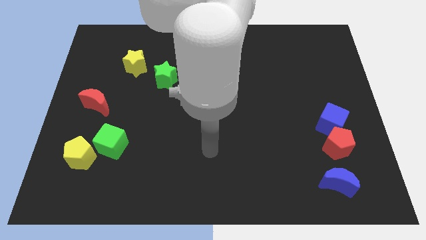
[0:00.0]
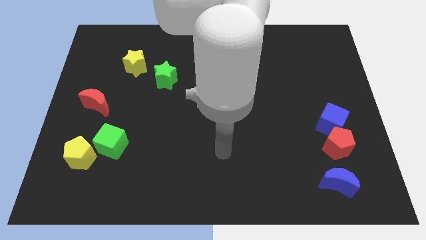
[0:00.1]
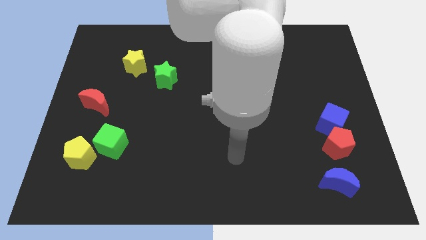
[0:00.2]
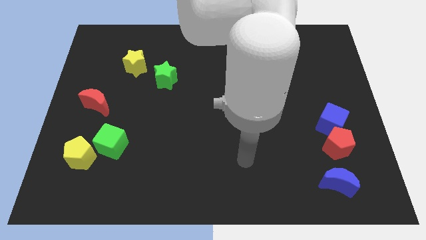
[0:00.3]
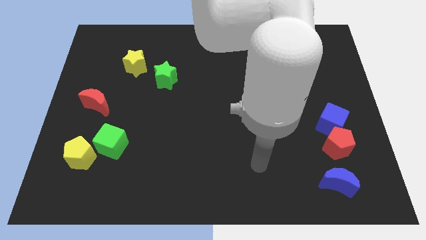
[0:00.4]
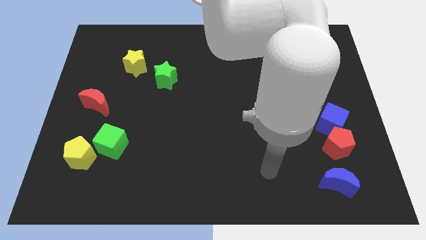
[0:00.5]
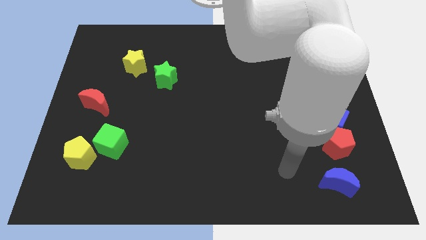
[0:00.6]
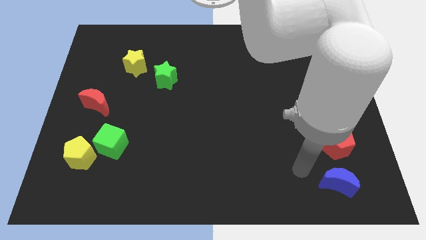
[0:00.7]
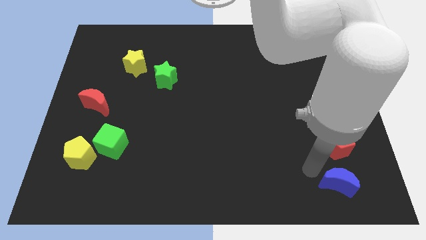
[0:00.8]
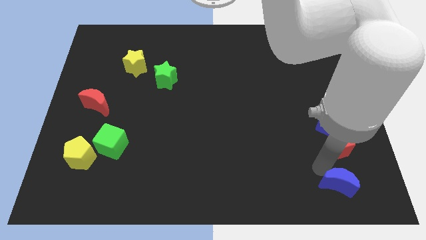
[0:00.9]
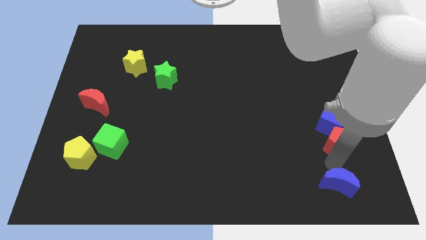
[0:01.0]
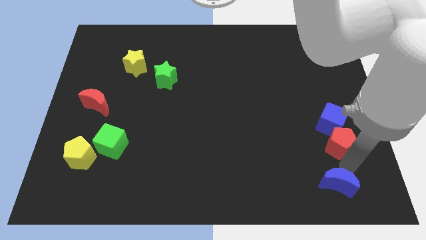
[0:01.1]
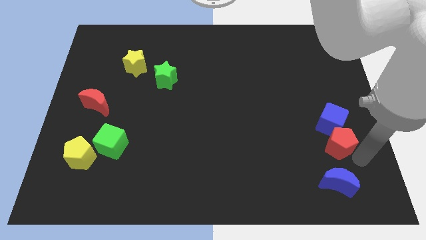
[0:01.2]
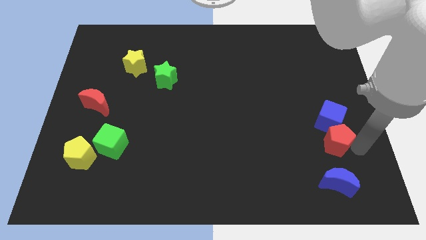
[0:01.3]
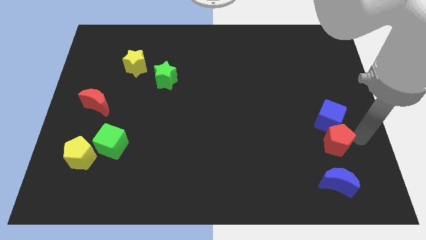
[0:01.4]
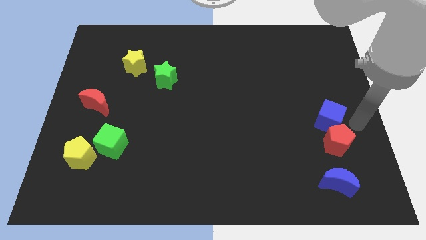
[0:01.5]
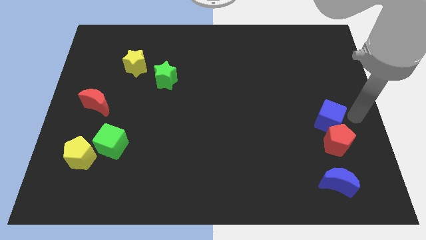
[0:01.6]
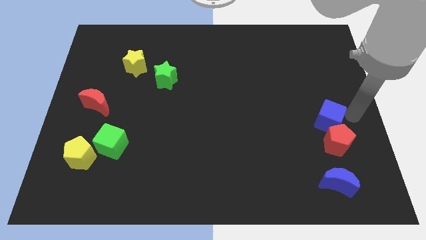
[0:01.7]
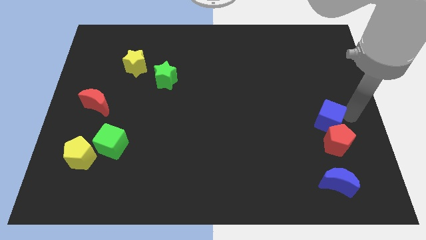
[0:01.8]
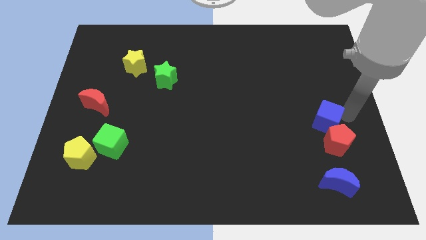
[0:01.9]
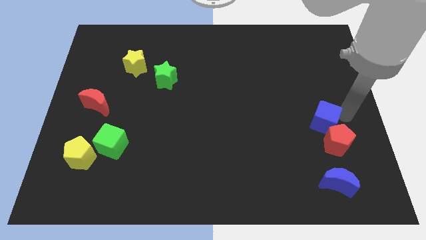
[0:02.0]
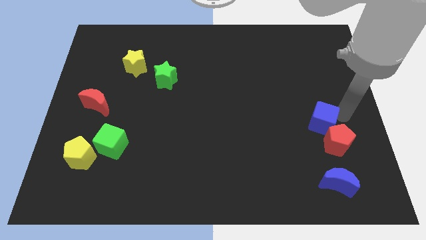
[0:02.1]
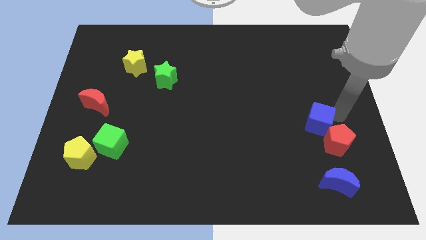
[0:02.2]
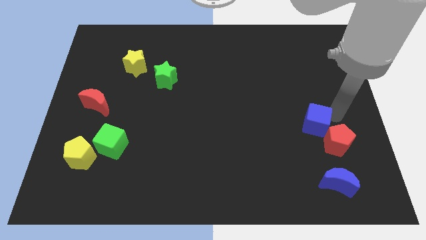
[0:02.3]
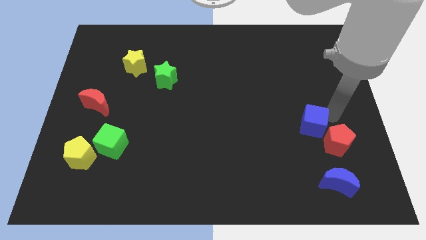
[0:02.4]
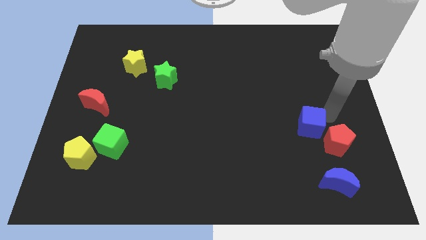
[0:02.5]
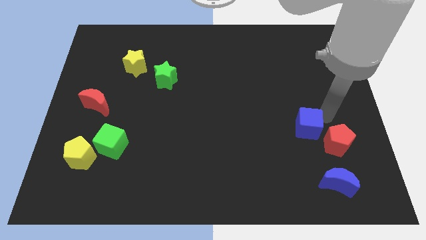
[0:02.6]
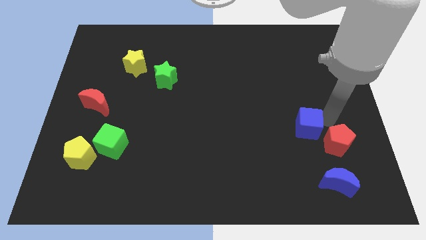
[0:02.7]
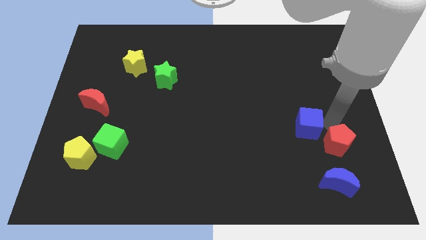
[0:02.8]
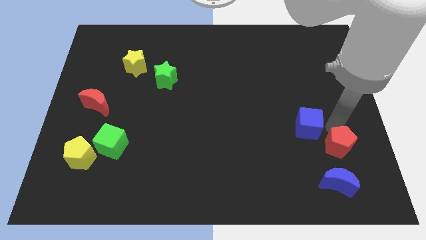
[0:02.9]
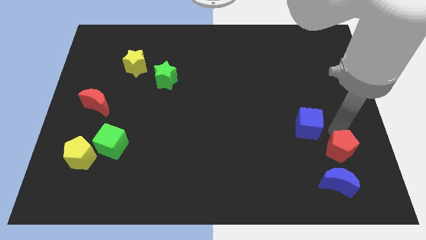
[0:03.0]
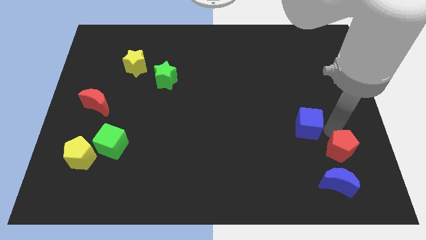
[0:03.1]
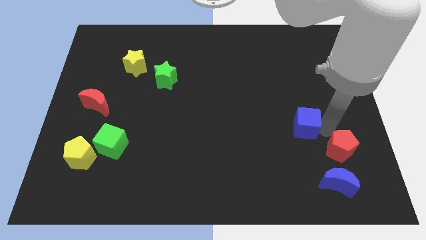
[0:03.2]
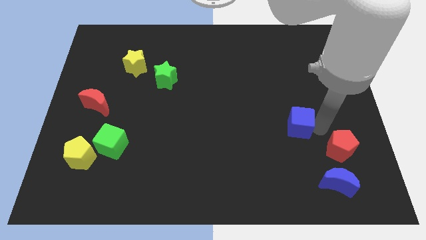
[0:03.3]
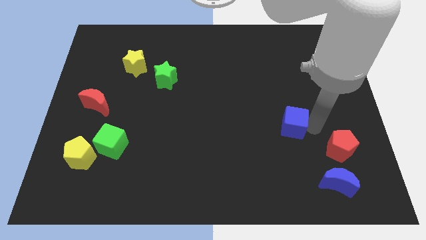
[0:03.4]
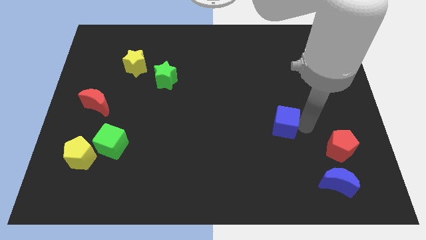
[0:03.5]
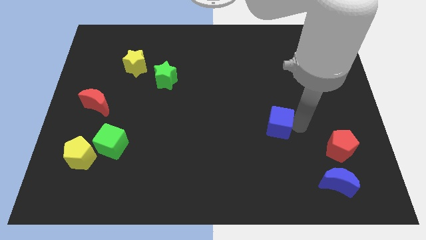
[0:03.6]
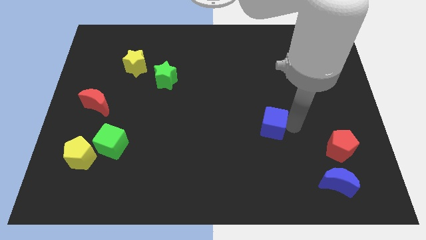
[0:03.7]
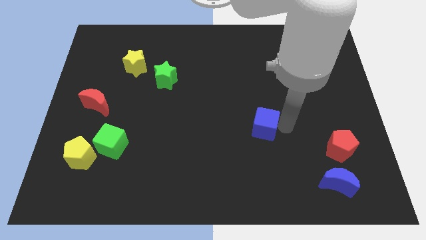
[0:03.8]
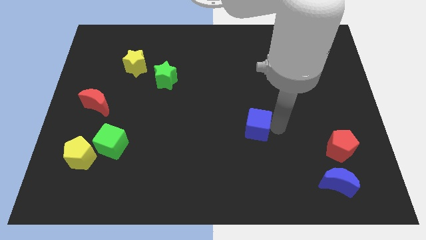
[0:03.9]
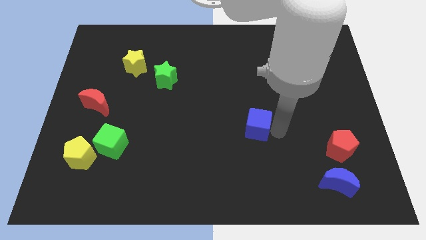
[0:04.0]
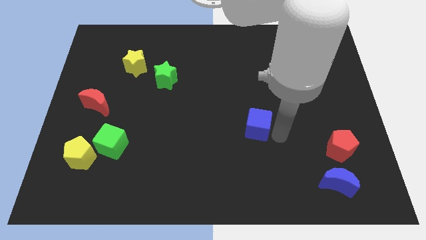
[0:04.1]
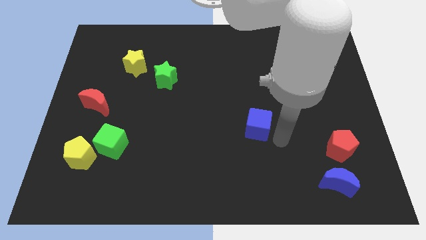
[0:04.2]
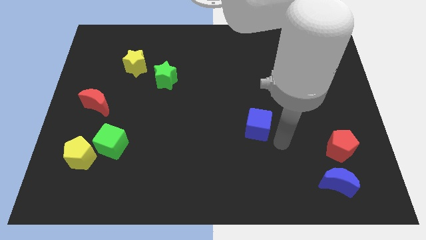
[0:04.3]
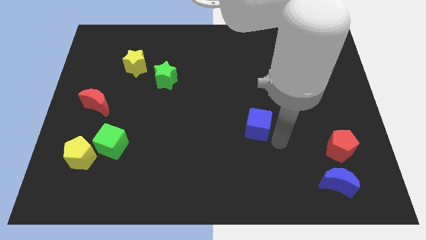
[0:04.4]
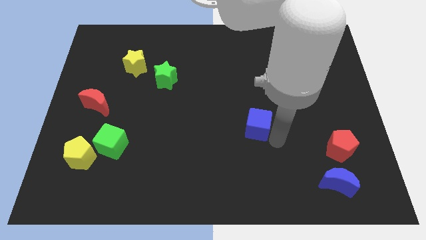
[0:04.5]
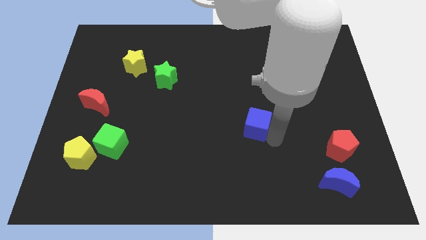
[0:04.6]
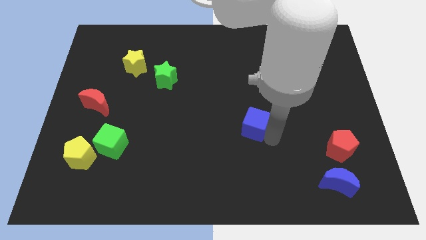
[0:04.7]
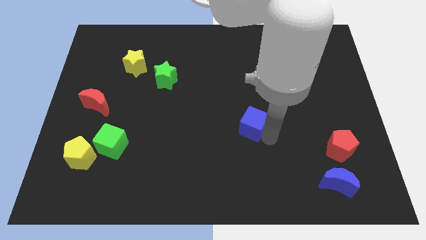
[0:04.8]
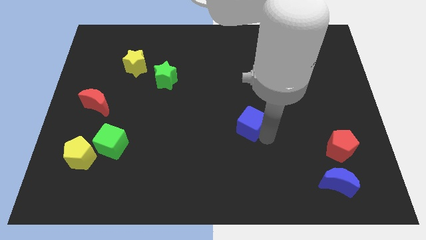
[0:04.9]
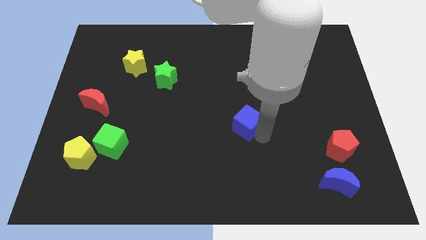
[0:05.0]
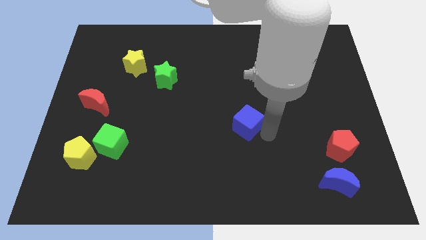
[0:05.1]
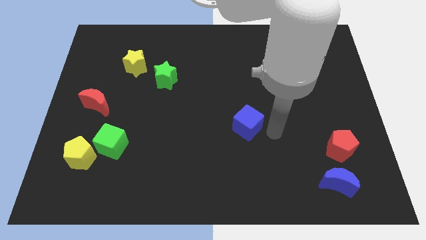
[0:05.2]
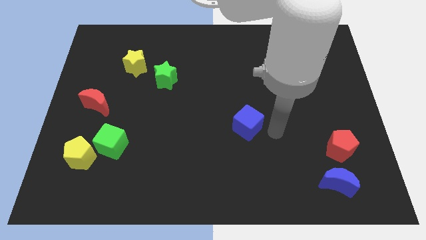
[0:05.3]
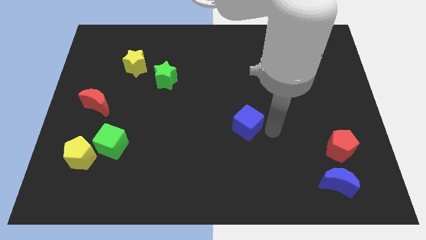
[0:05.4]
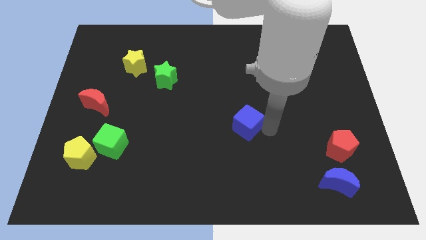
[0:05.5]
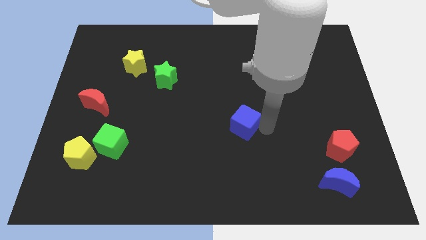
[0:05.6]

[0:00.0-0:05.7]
move the blue cube left

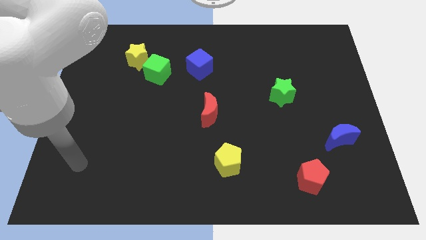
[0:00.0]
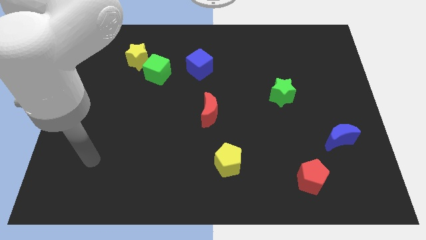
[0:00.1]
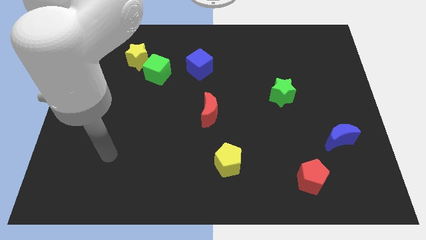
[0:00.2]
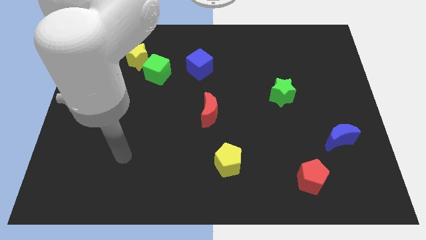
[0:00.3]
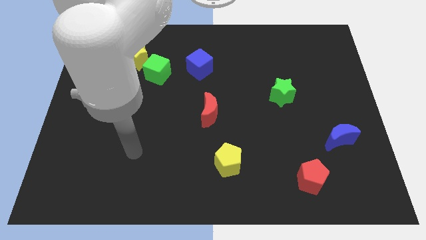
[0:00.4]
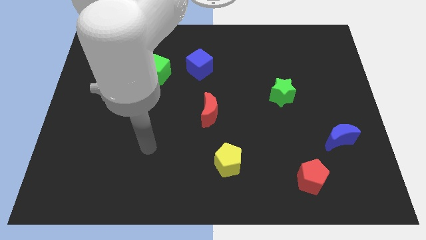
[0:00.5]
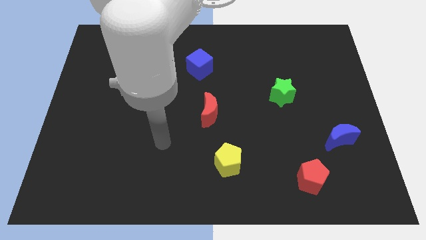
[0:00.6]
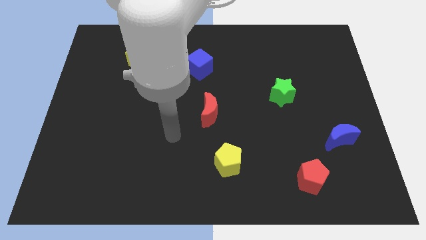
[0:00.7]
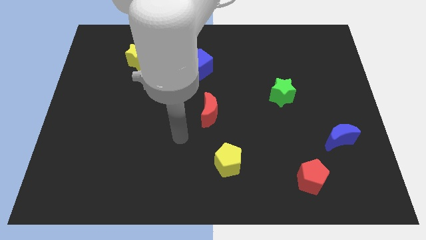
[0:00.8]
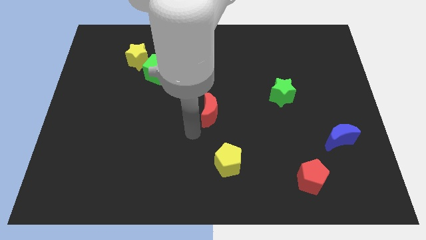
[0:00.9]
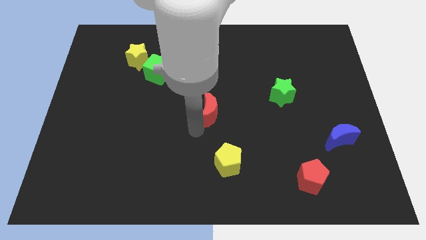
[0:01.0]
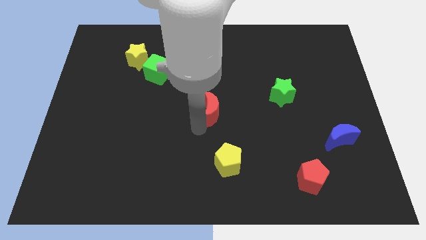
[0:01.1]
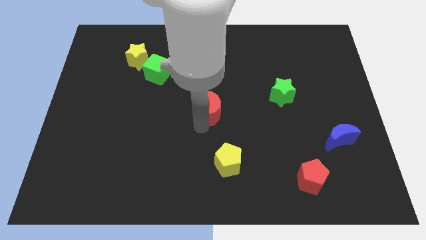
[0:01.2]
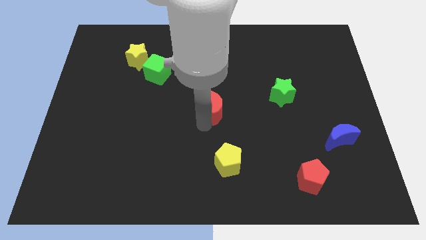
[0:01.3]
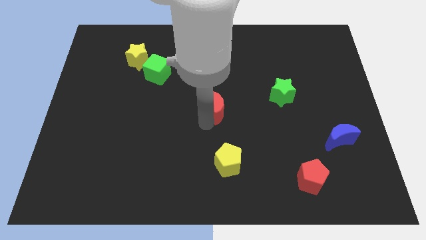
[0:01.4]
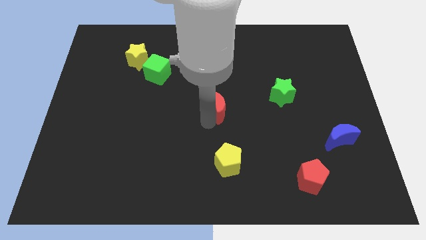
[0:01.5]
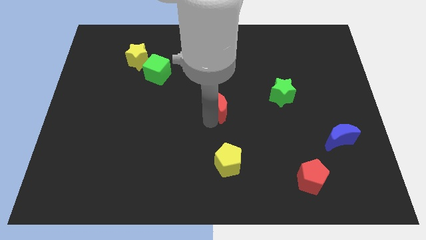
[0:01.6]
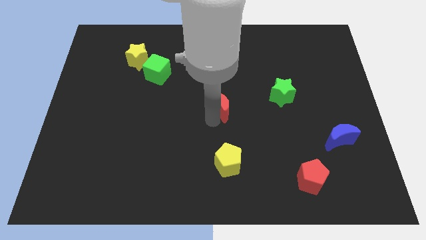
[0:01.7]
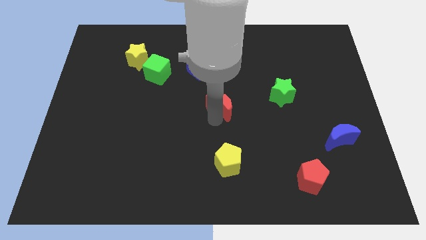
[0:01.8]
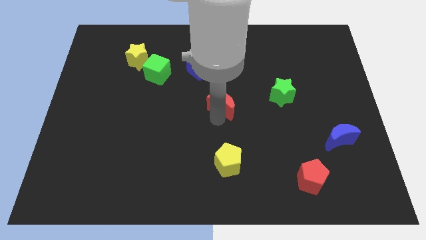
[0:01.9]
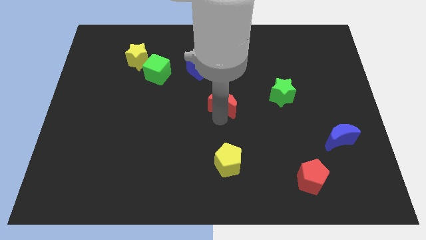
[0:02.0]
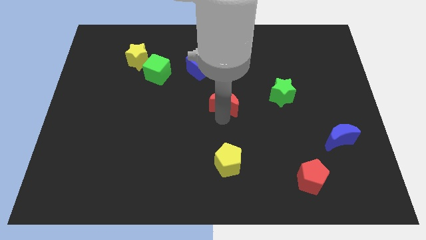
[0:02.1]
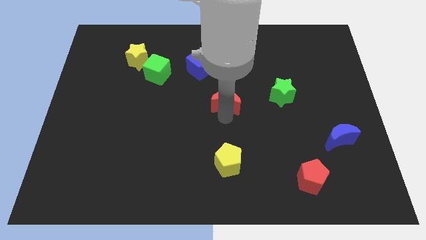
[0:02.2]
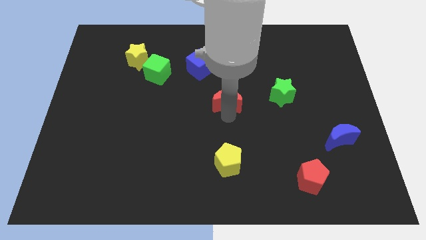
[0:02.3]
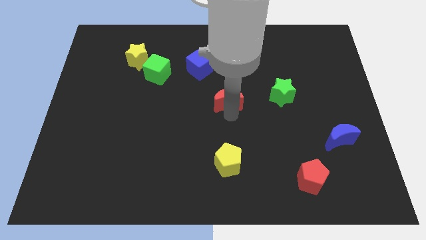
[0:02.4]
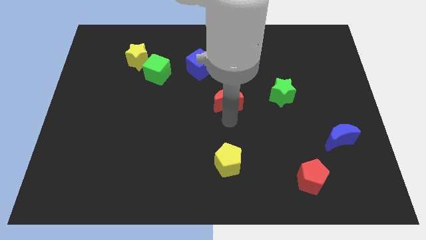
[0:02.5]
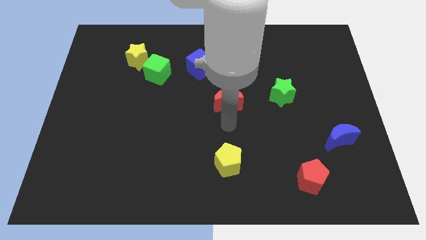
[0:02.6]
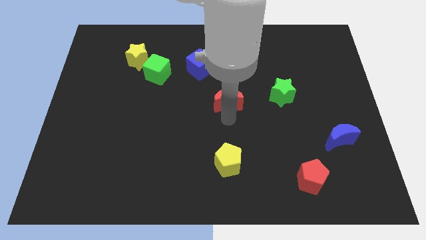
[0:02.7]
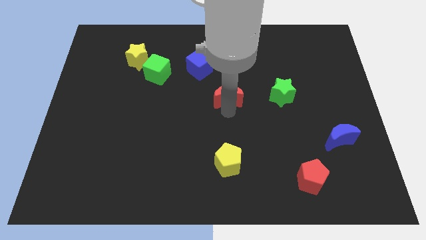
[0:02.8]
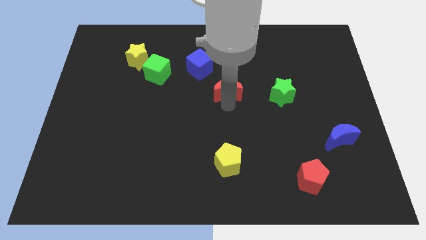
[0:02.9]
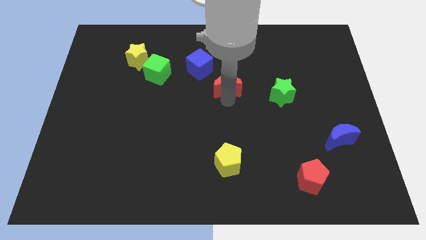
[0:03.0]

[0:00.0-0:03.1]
slide the red moon up a little bit
